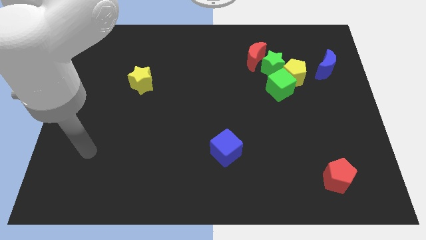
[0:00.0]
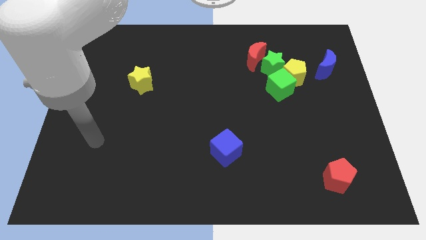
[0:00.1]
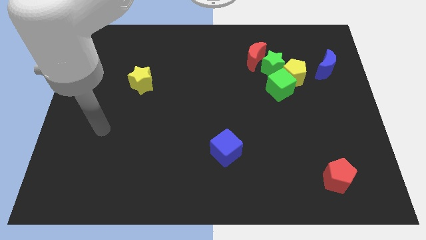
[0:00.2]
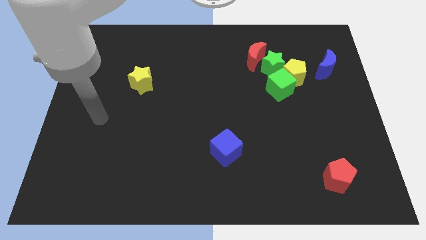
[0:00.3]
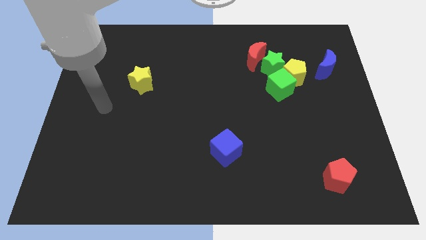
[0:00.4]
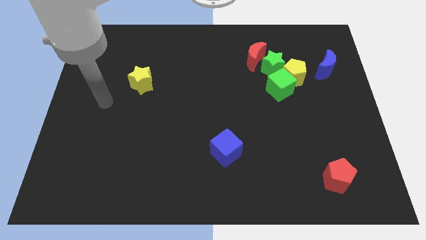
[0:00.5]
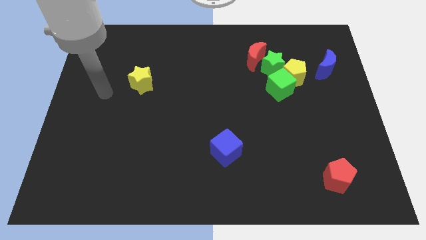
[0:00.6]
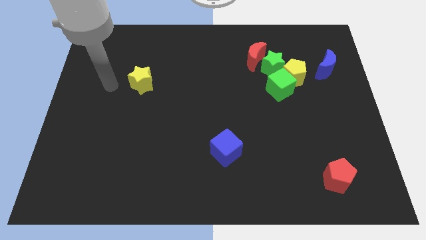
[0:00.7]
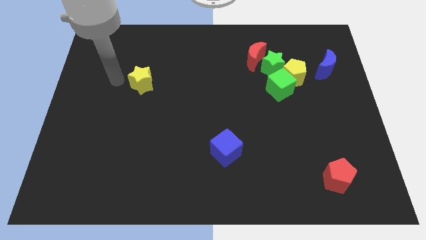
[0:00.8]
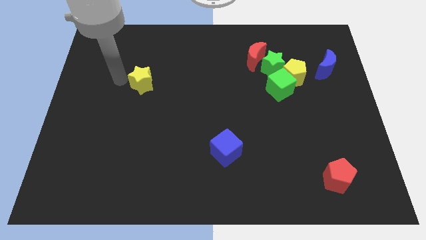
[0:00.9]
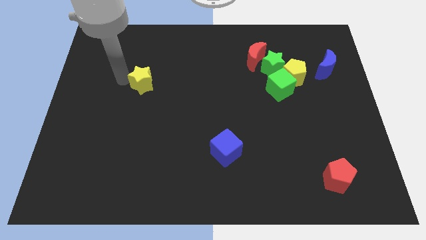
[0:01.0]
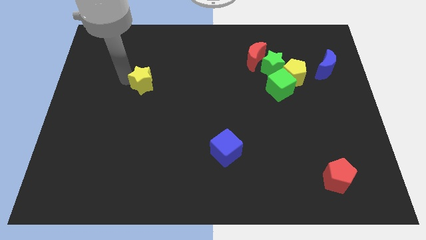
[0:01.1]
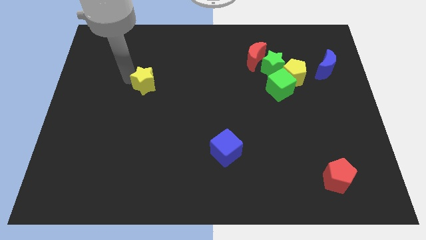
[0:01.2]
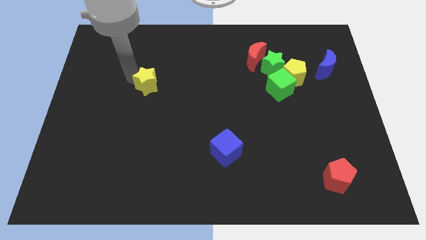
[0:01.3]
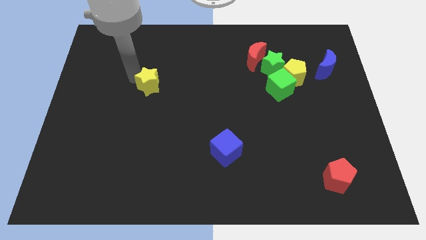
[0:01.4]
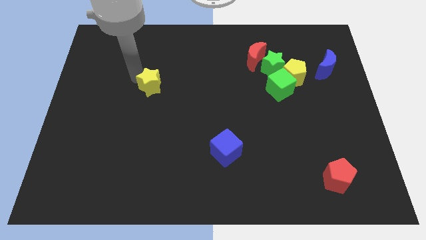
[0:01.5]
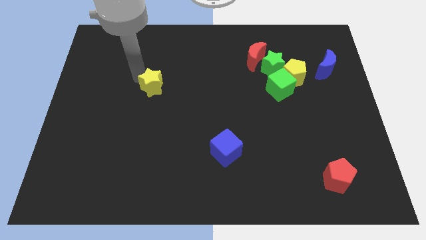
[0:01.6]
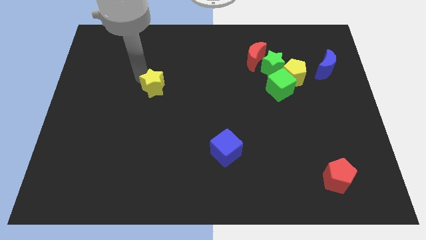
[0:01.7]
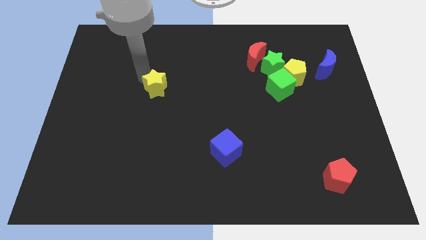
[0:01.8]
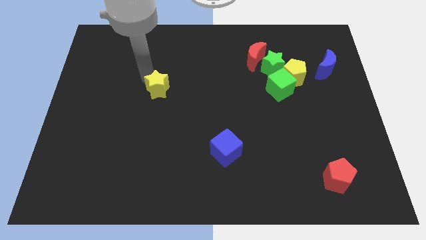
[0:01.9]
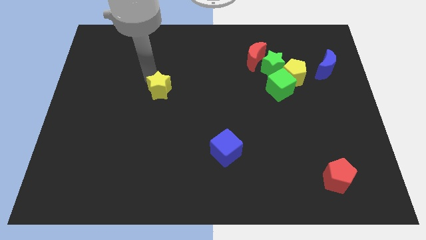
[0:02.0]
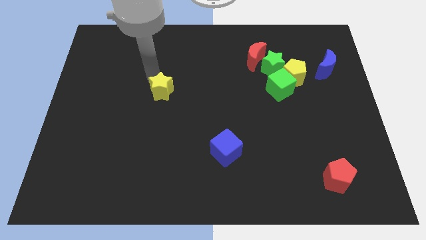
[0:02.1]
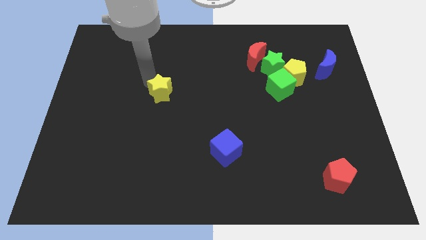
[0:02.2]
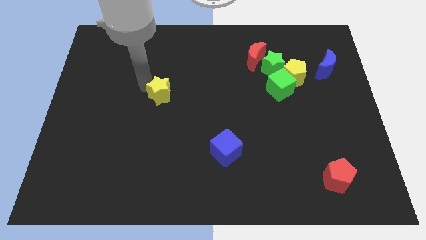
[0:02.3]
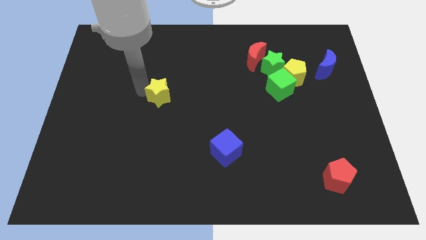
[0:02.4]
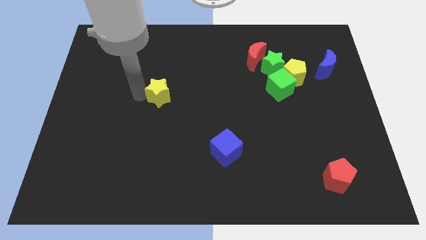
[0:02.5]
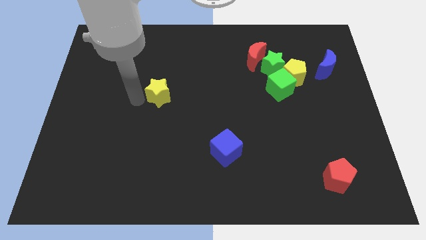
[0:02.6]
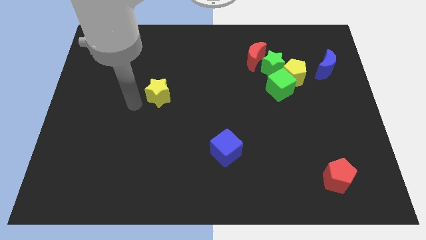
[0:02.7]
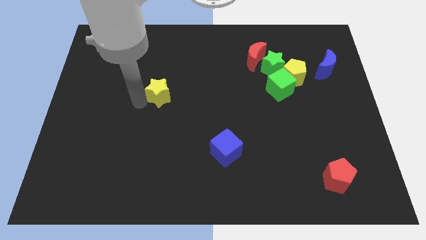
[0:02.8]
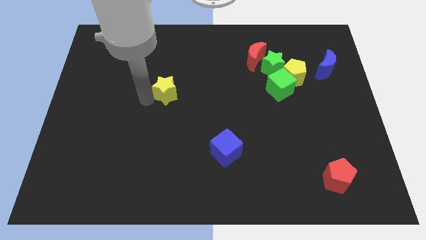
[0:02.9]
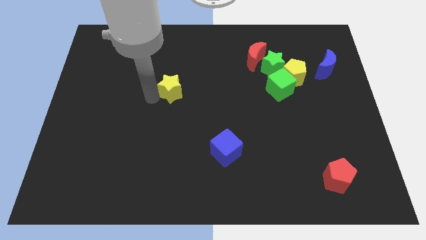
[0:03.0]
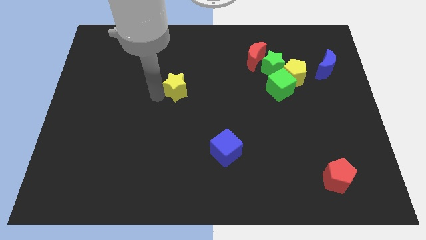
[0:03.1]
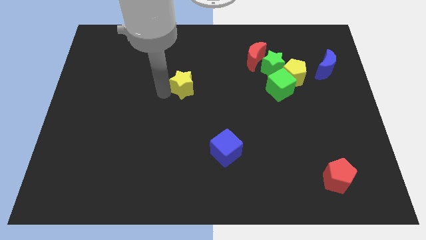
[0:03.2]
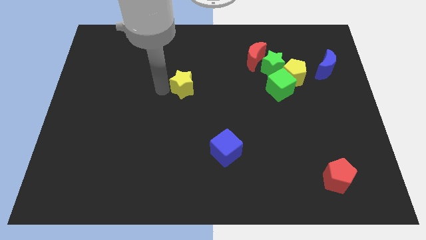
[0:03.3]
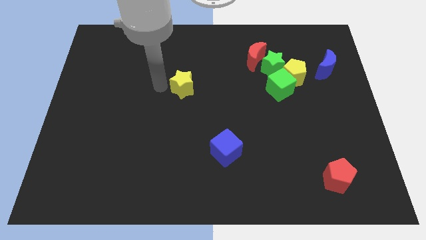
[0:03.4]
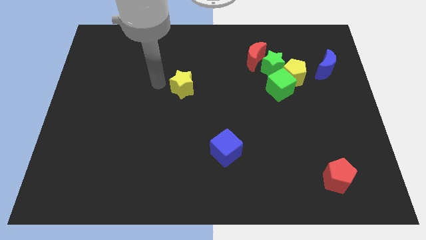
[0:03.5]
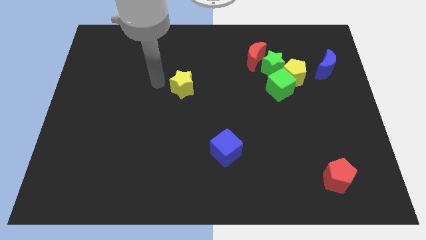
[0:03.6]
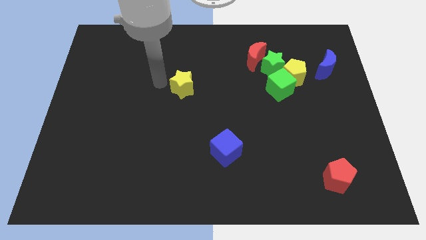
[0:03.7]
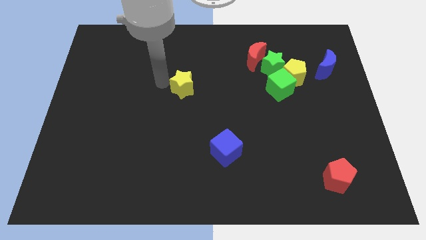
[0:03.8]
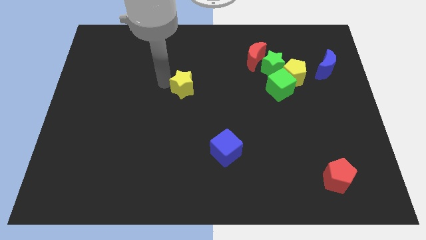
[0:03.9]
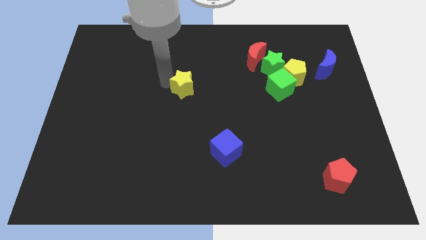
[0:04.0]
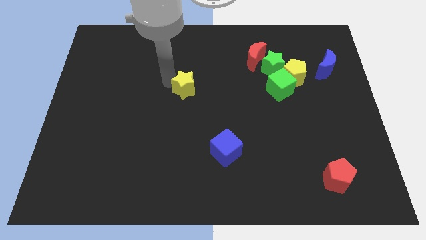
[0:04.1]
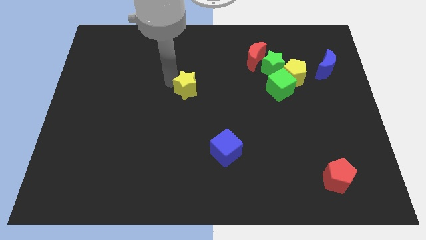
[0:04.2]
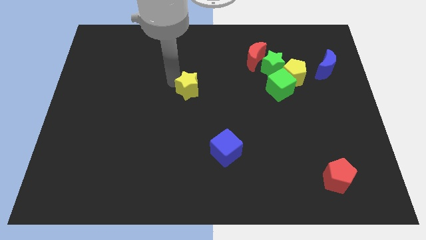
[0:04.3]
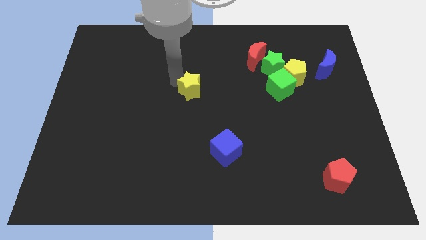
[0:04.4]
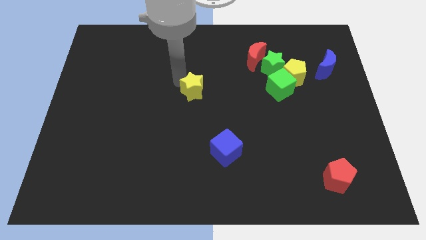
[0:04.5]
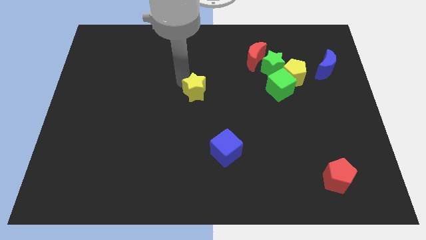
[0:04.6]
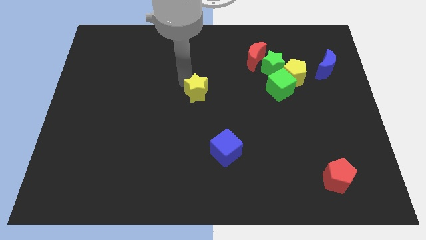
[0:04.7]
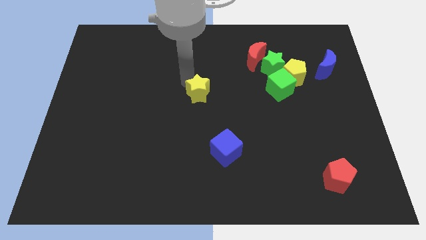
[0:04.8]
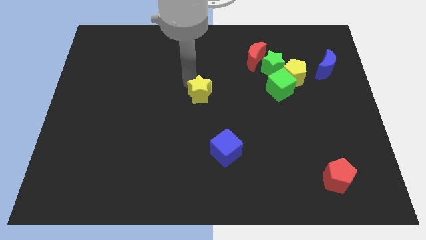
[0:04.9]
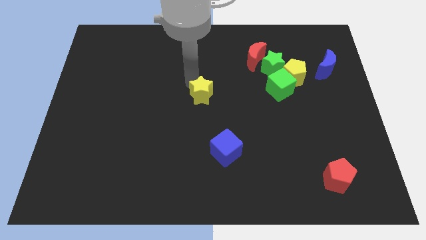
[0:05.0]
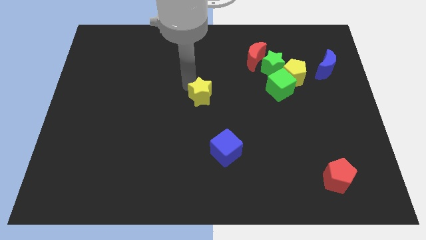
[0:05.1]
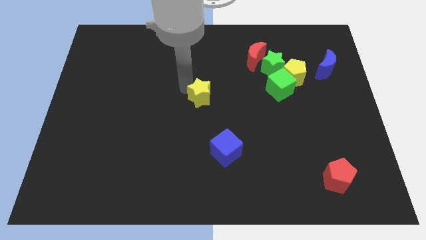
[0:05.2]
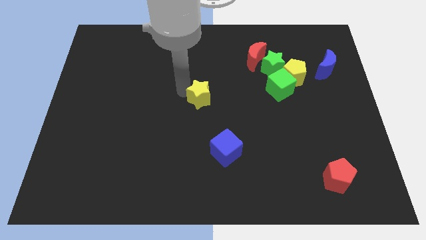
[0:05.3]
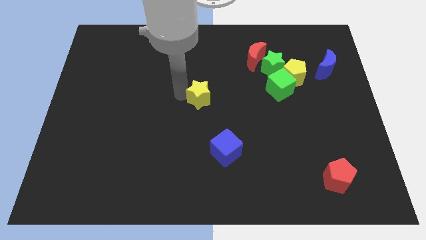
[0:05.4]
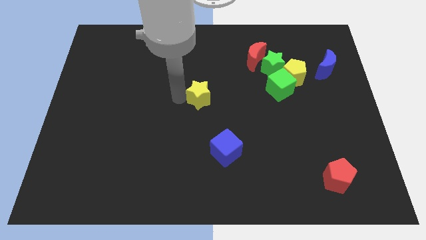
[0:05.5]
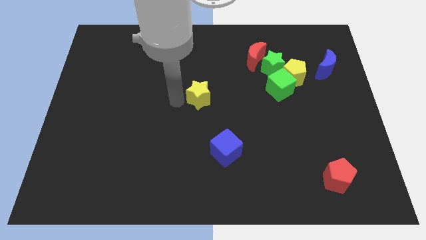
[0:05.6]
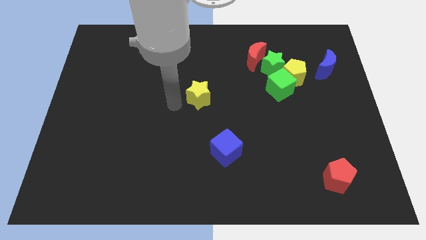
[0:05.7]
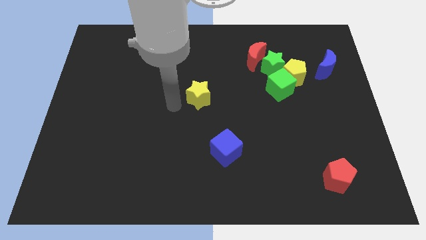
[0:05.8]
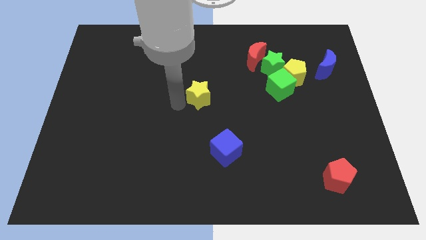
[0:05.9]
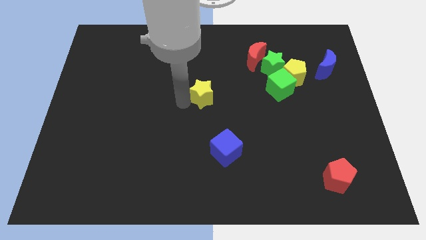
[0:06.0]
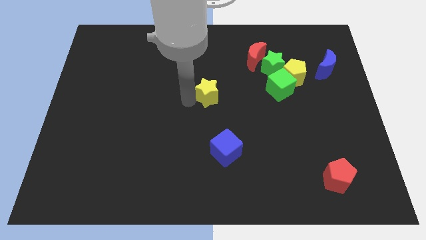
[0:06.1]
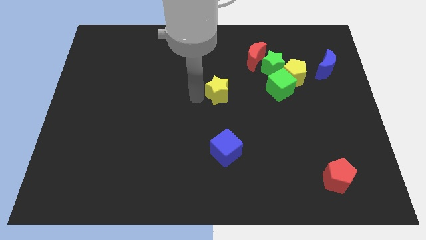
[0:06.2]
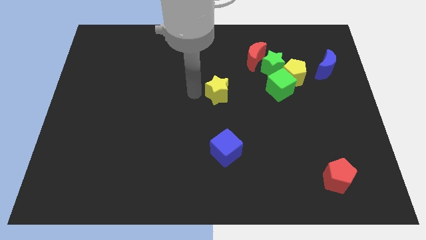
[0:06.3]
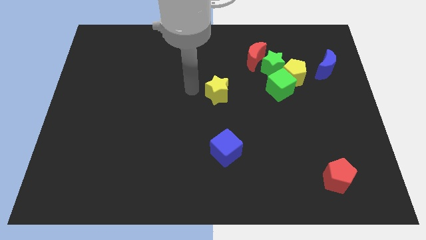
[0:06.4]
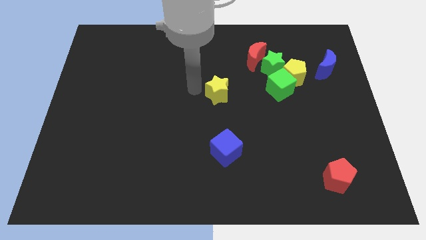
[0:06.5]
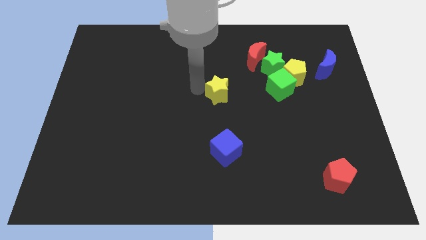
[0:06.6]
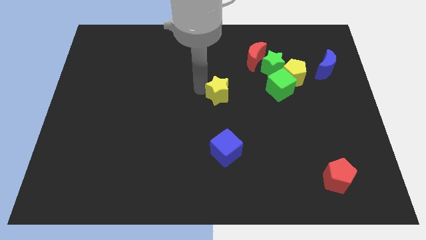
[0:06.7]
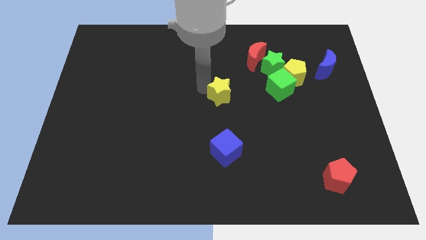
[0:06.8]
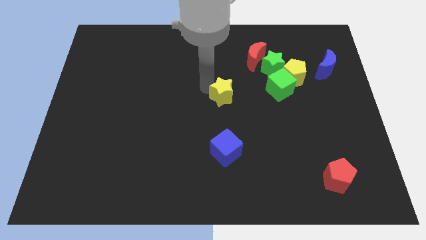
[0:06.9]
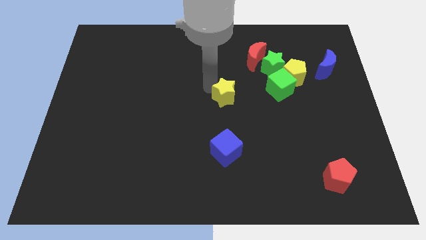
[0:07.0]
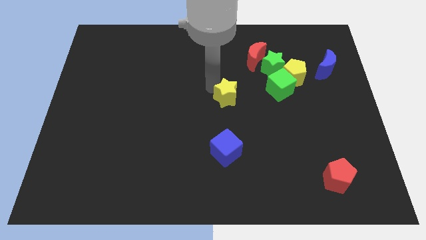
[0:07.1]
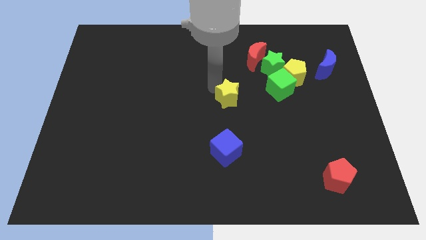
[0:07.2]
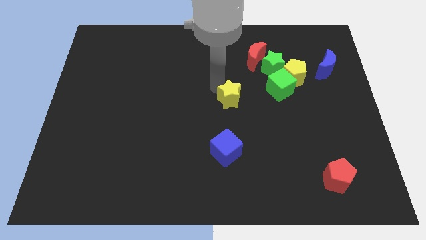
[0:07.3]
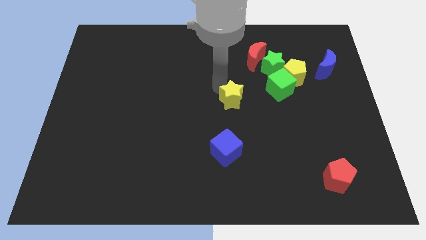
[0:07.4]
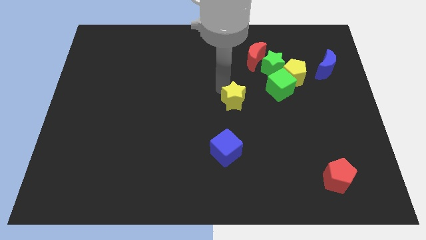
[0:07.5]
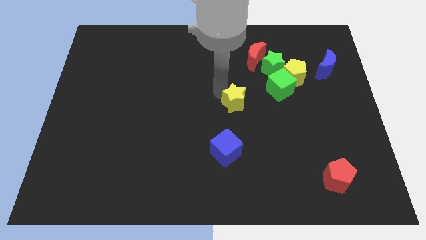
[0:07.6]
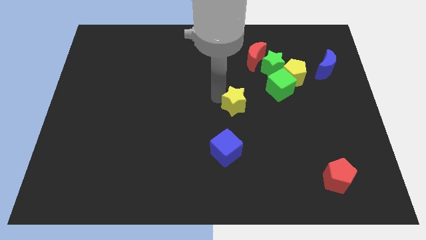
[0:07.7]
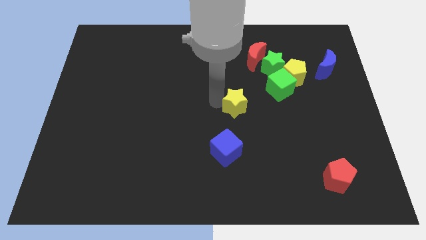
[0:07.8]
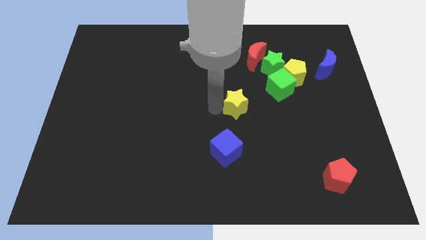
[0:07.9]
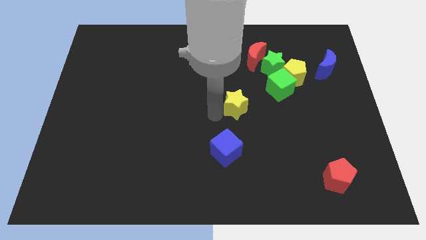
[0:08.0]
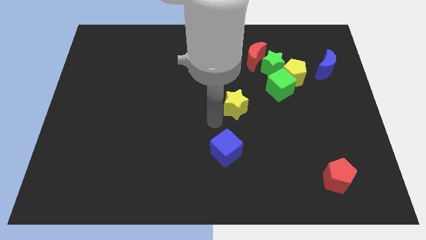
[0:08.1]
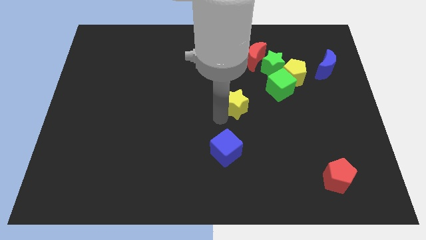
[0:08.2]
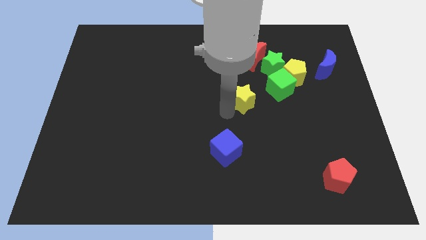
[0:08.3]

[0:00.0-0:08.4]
push the yellow star to the bottom of the red moon
